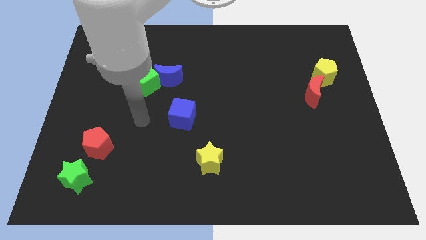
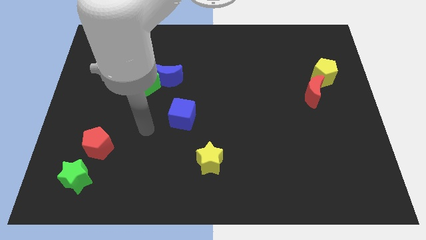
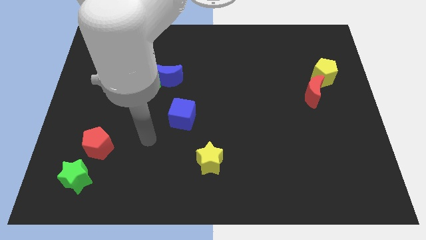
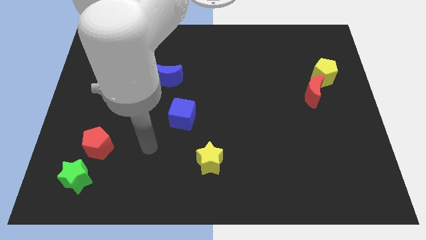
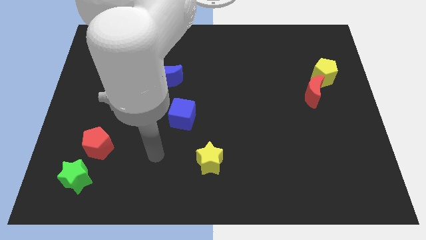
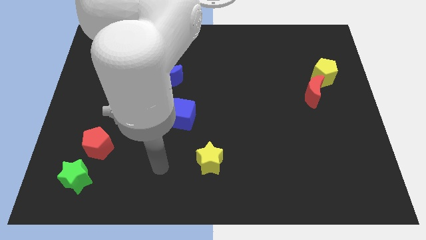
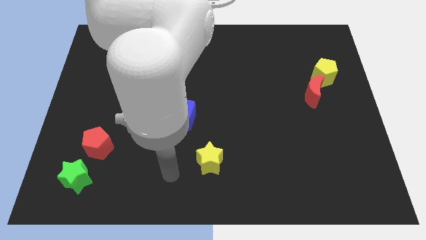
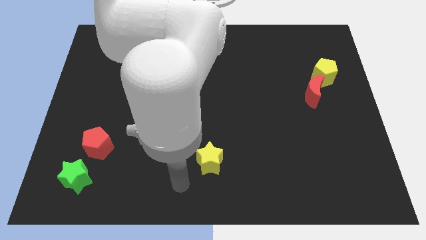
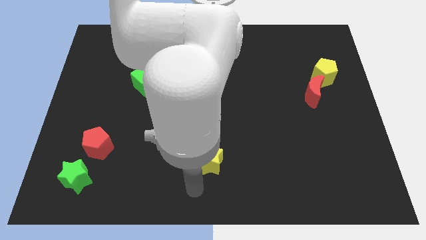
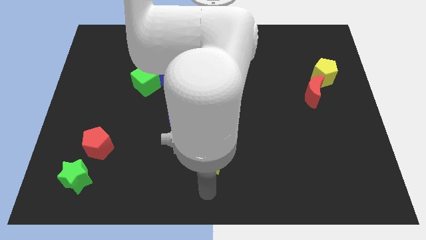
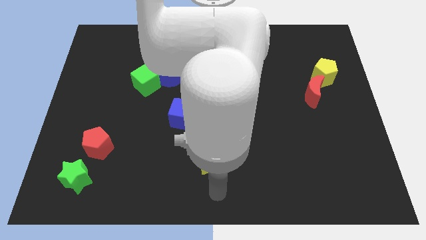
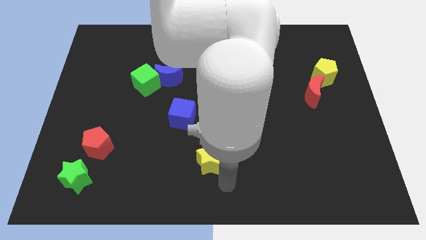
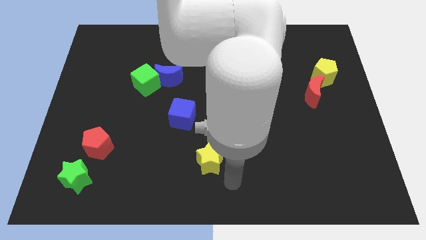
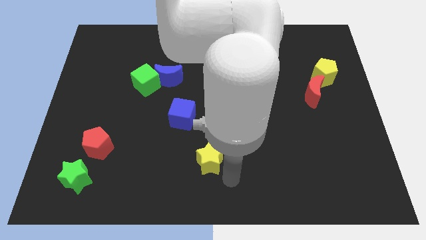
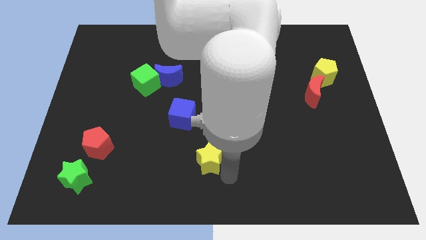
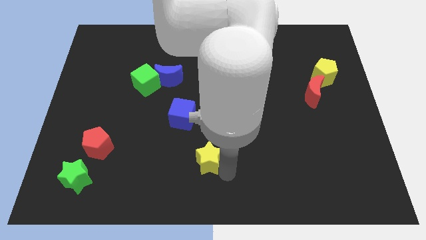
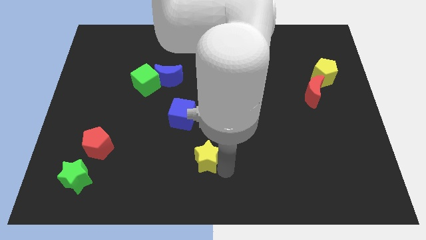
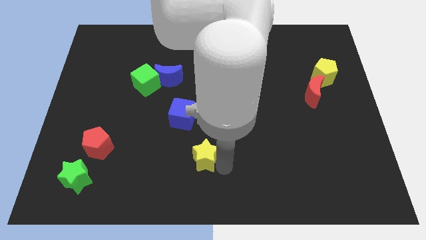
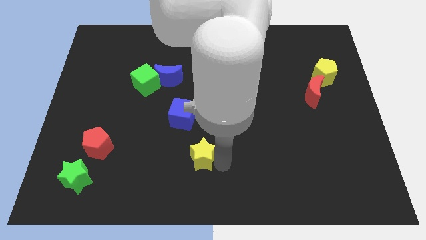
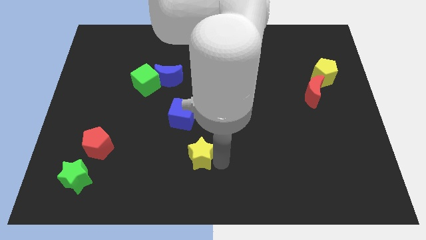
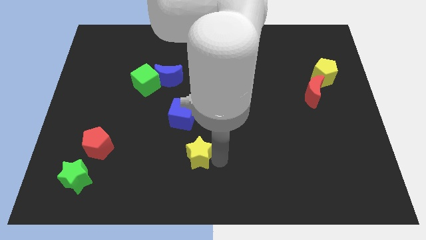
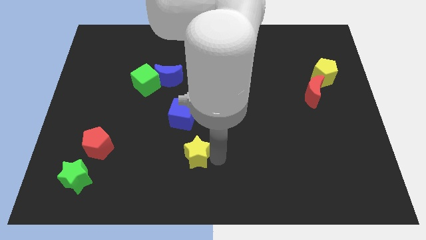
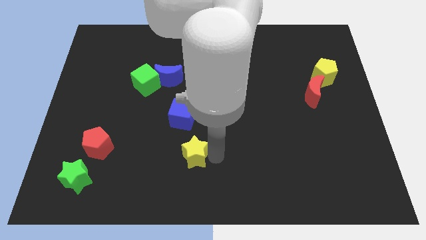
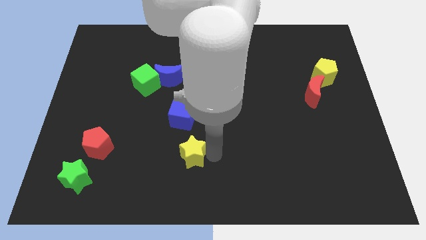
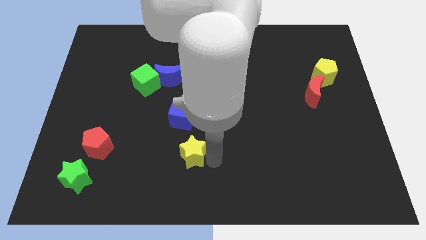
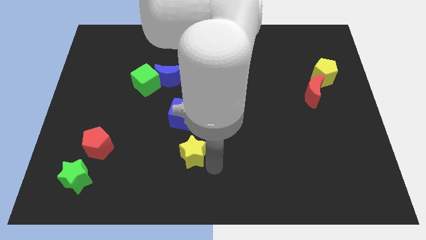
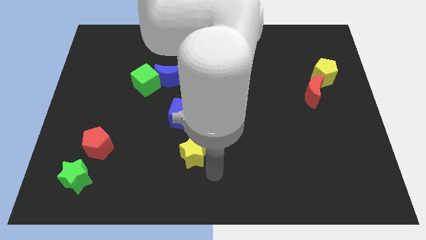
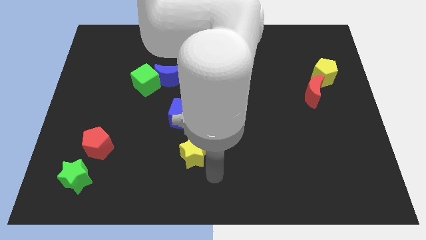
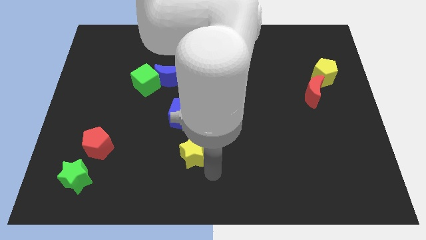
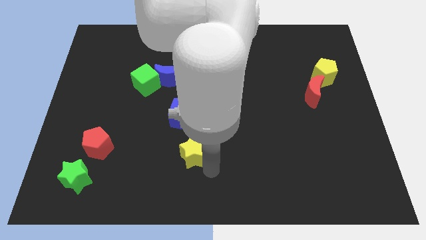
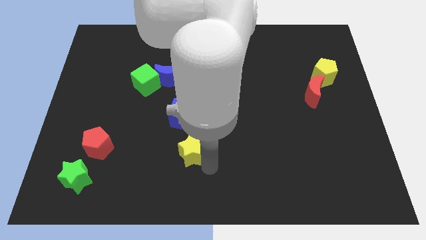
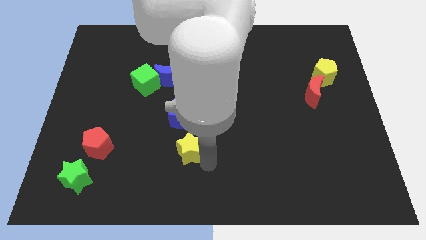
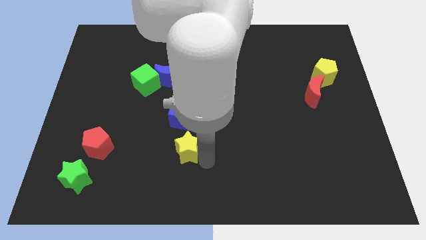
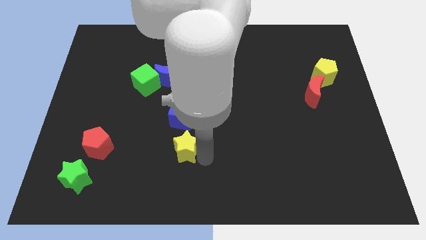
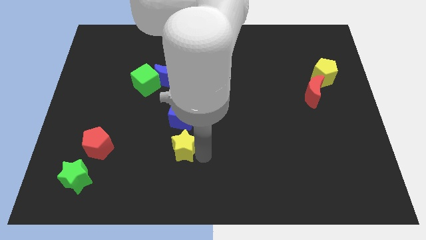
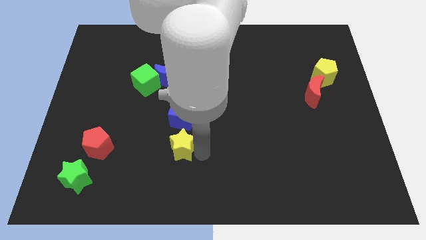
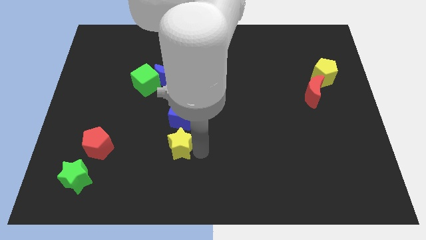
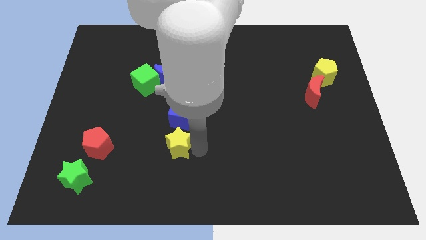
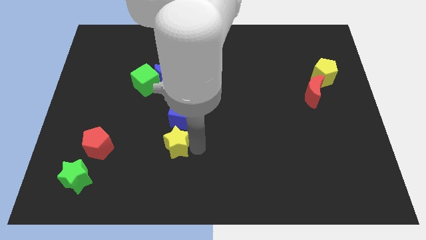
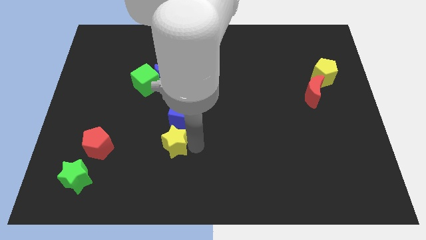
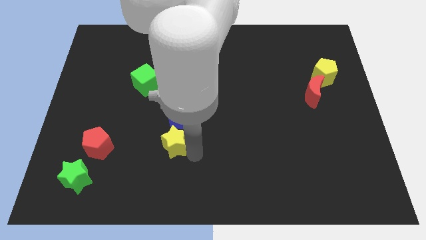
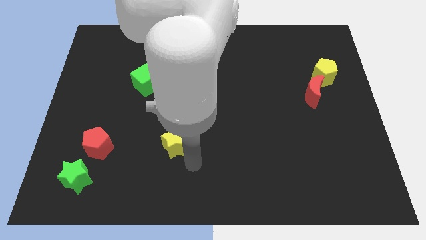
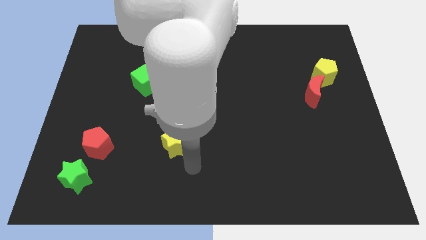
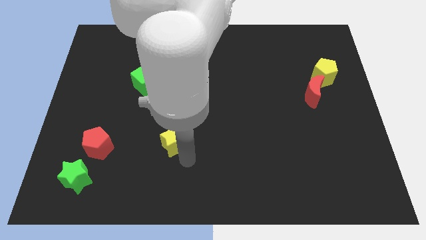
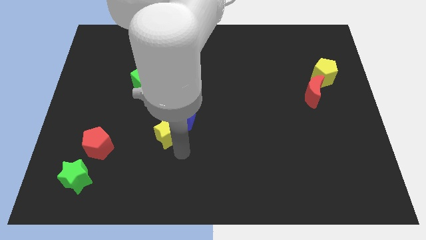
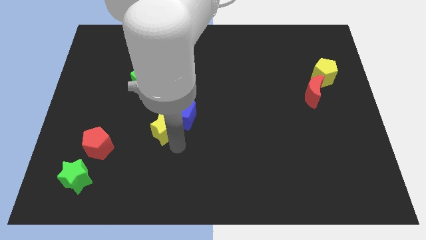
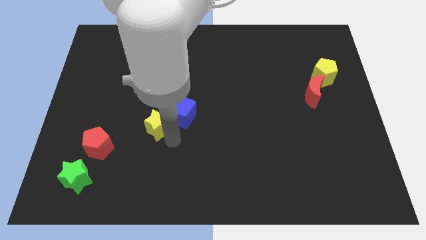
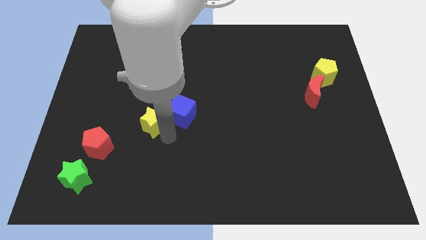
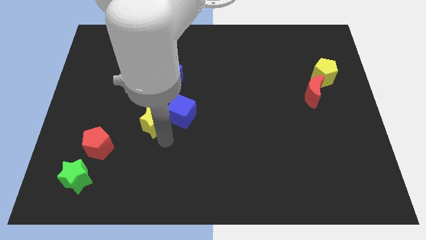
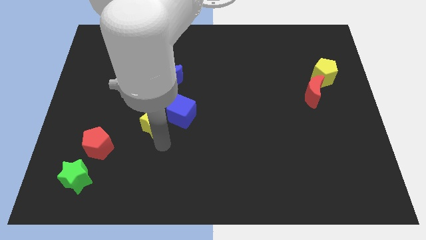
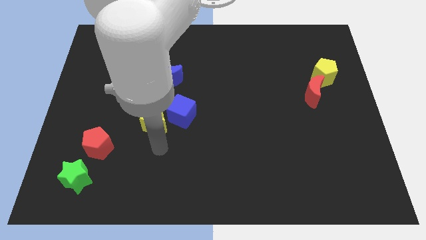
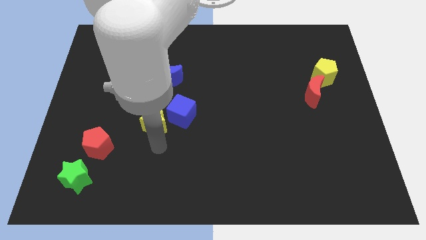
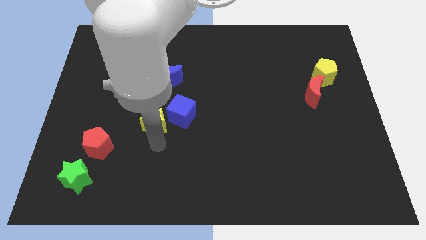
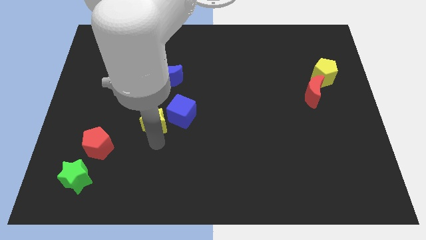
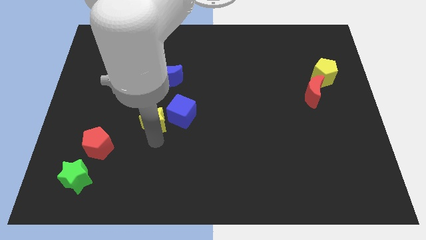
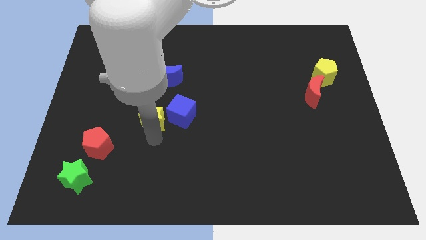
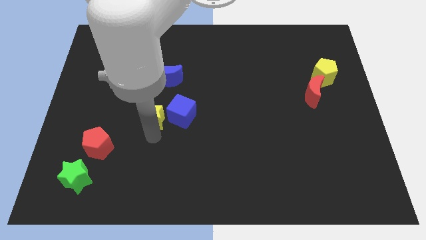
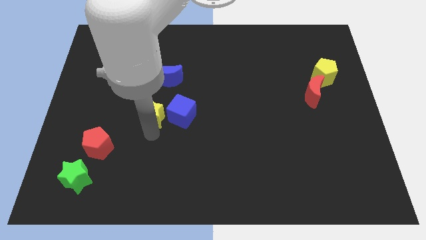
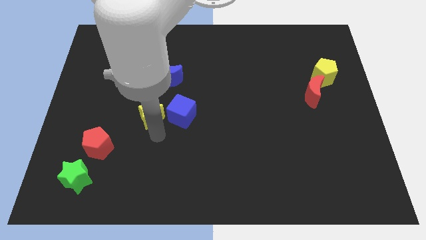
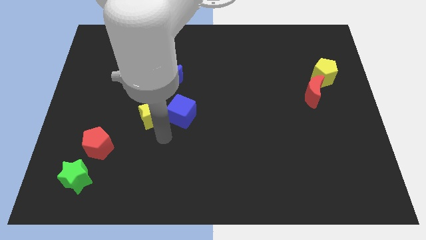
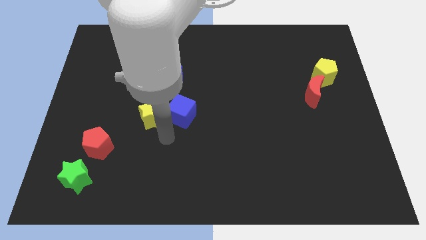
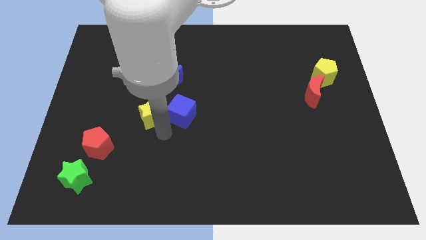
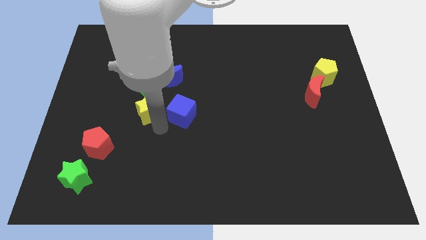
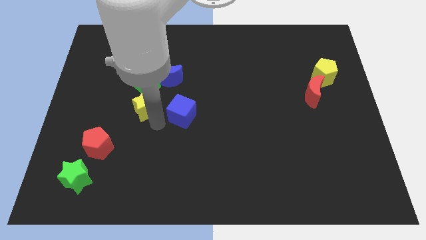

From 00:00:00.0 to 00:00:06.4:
push the yellow star up and left

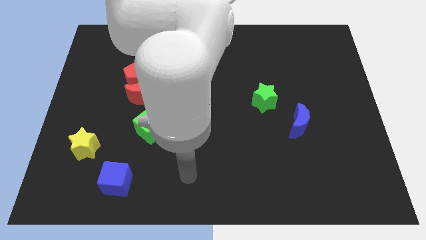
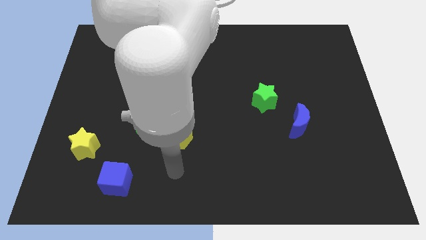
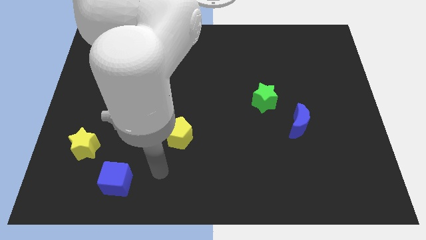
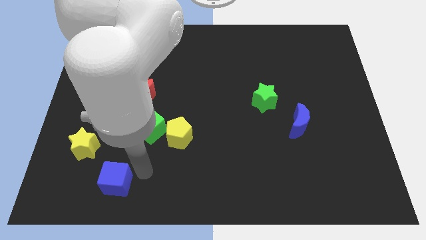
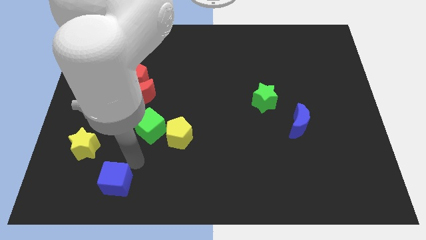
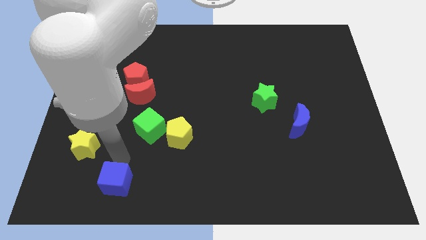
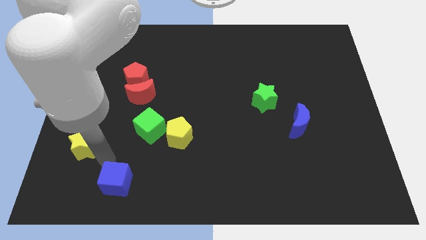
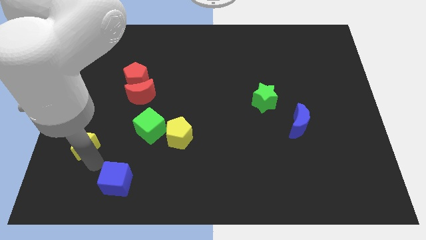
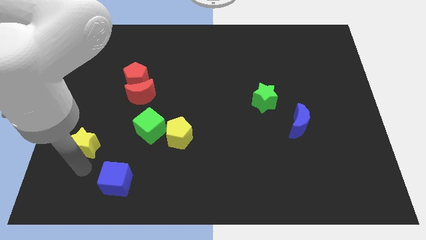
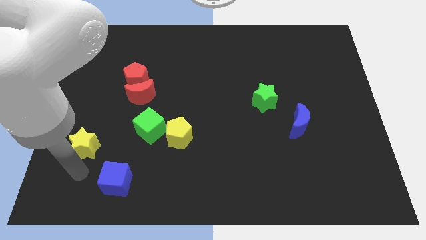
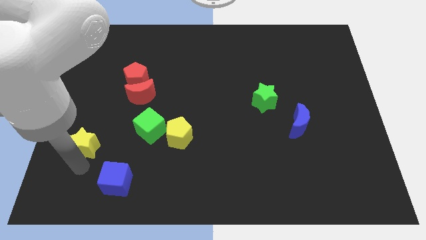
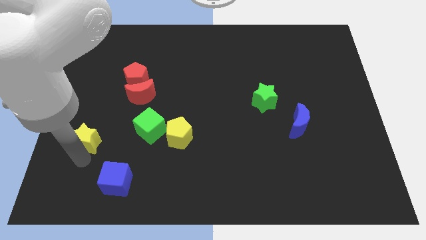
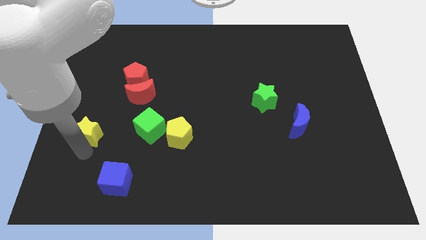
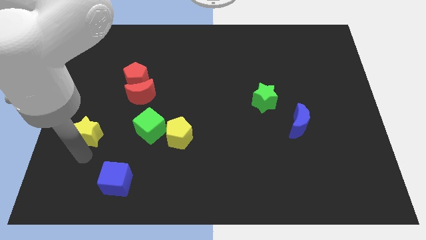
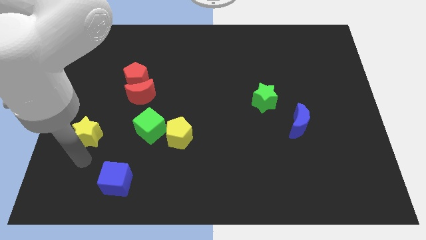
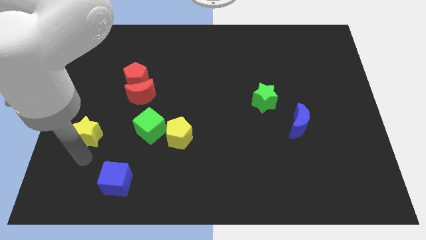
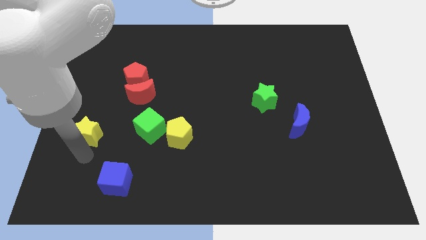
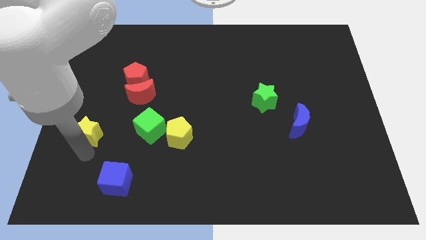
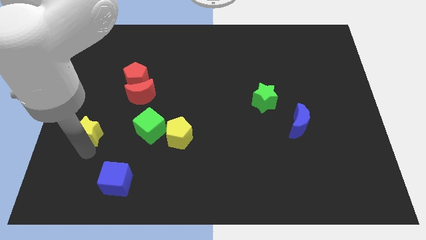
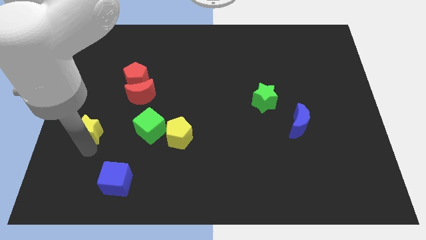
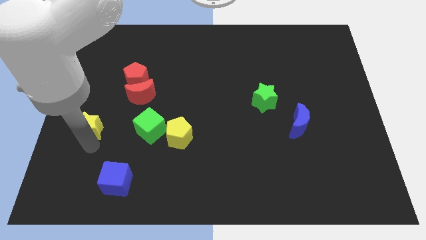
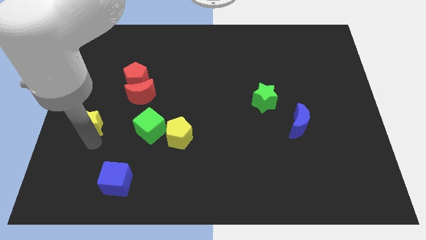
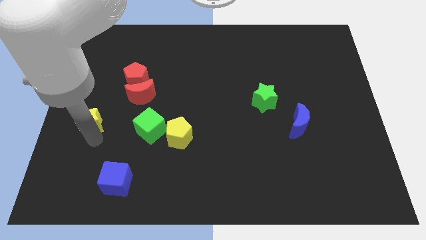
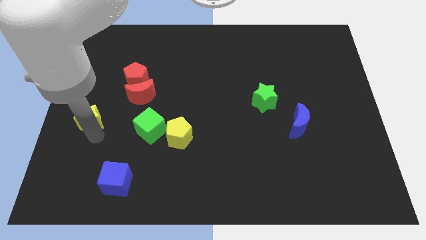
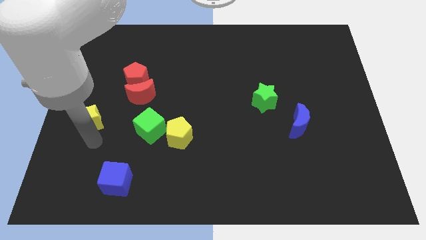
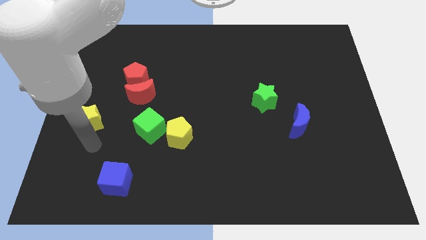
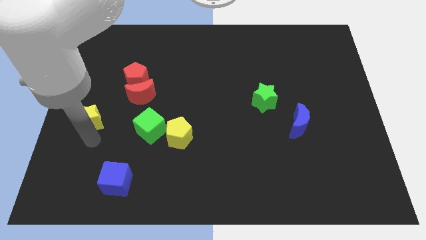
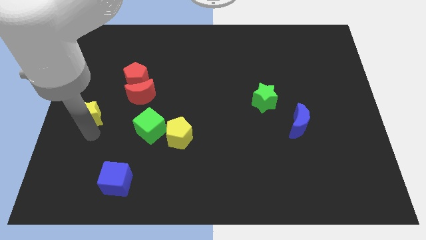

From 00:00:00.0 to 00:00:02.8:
move the yellow star somewhat upwards
